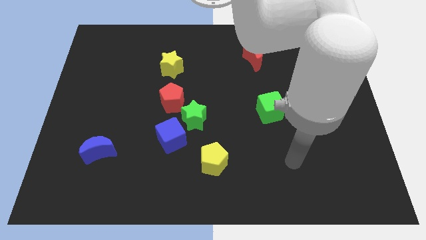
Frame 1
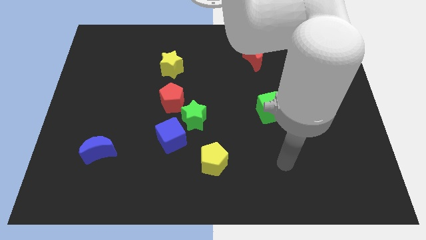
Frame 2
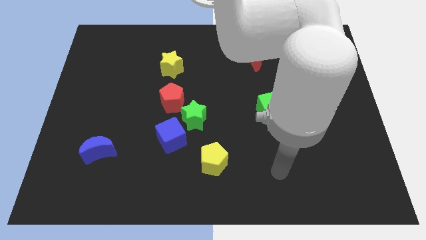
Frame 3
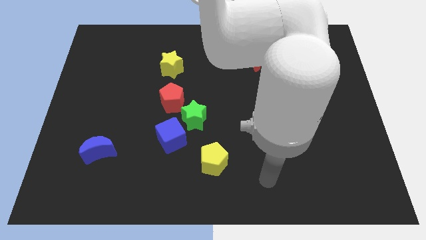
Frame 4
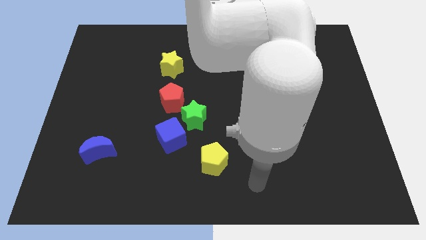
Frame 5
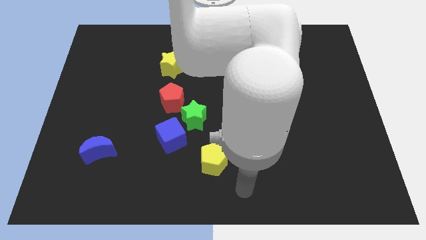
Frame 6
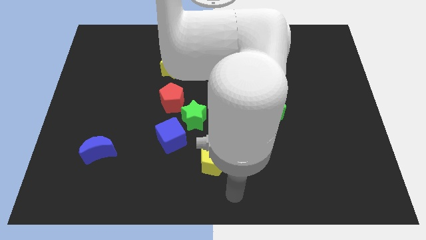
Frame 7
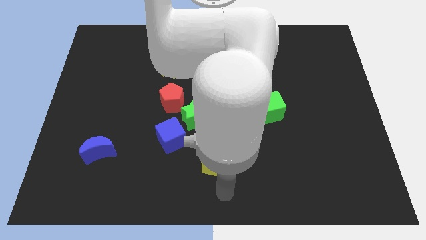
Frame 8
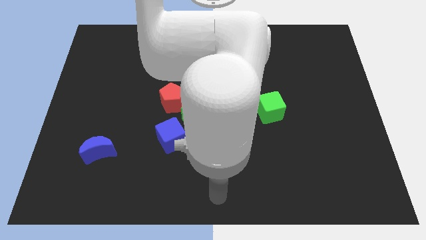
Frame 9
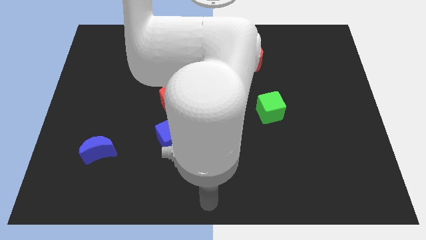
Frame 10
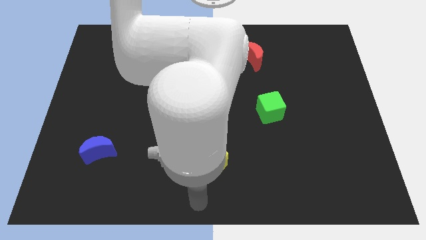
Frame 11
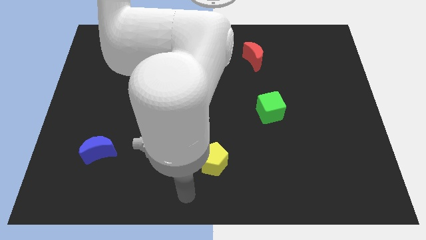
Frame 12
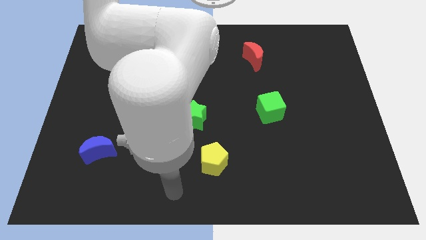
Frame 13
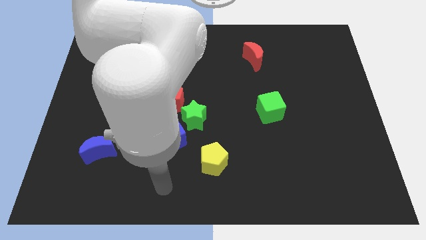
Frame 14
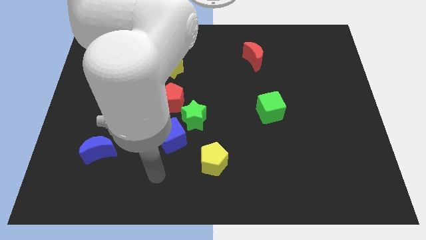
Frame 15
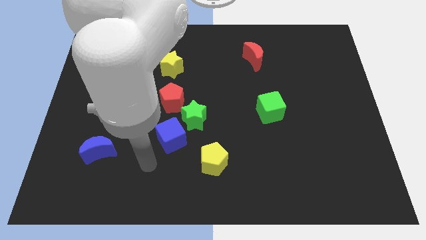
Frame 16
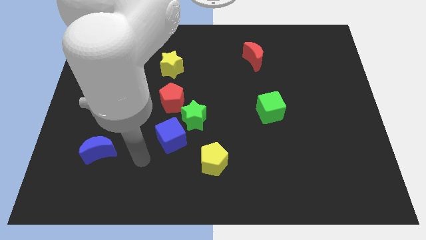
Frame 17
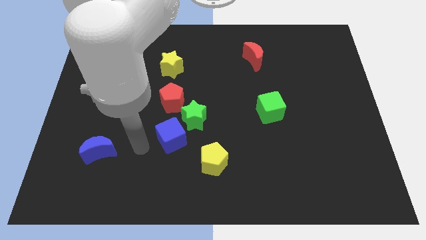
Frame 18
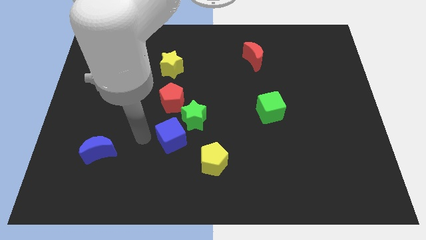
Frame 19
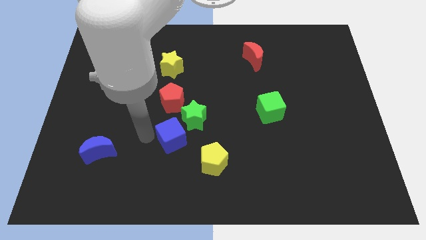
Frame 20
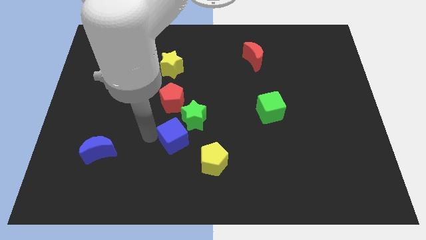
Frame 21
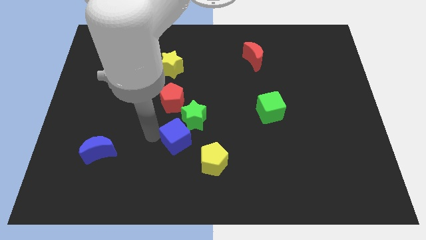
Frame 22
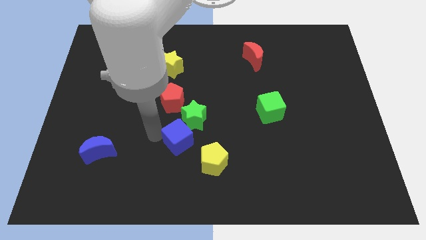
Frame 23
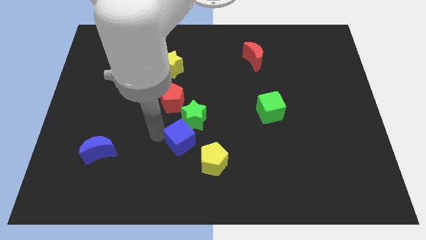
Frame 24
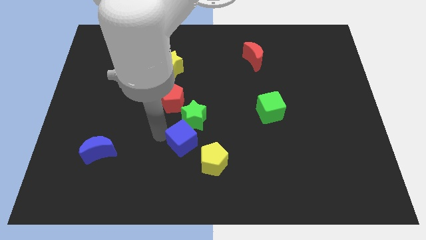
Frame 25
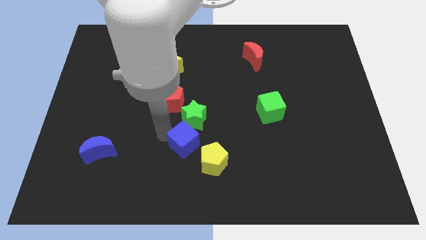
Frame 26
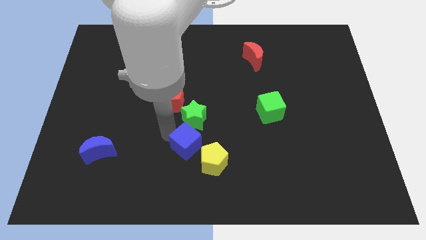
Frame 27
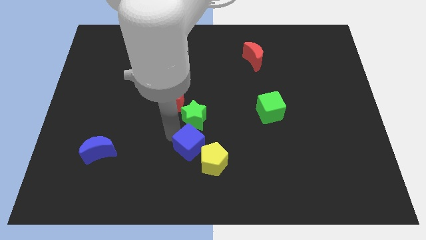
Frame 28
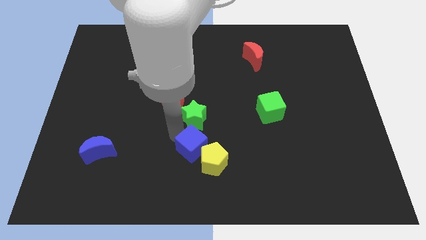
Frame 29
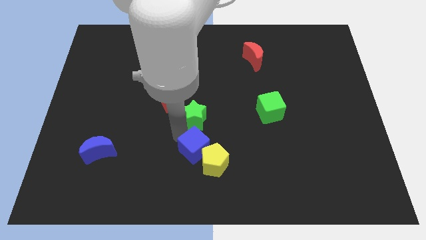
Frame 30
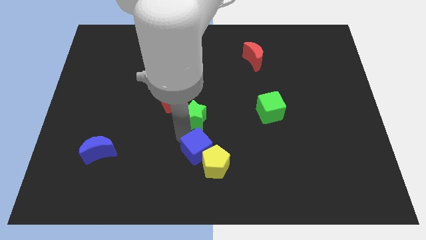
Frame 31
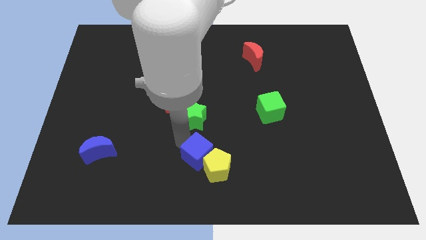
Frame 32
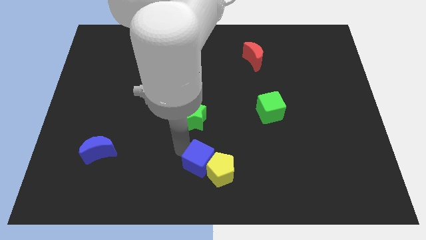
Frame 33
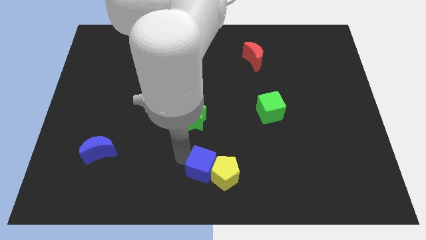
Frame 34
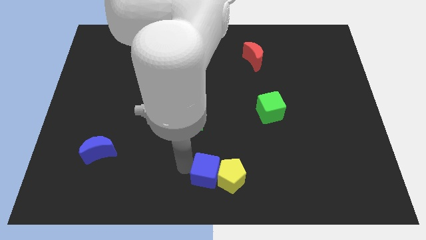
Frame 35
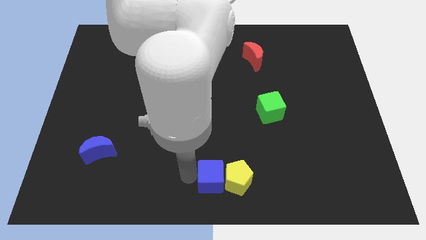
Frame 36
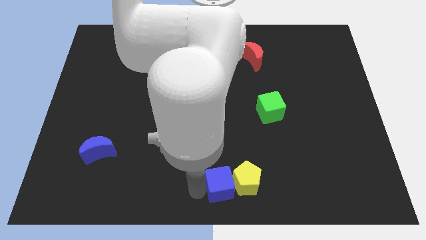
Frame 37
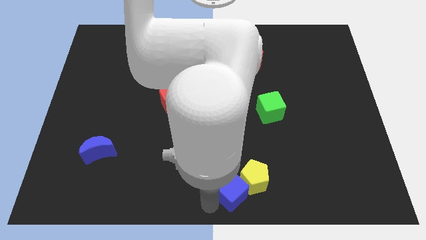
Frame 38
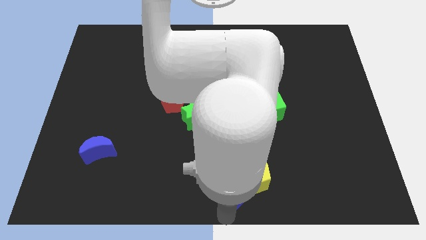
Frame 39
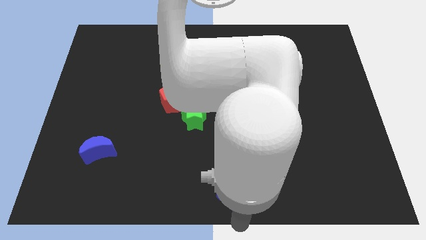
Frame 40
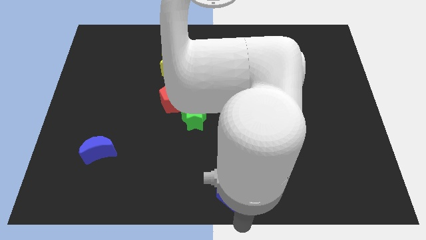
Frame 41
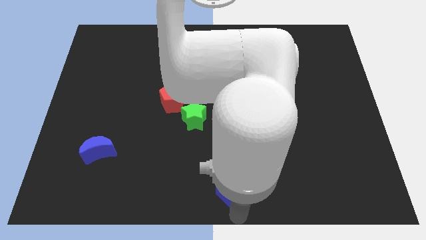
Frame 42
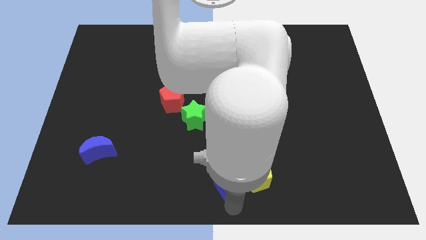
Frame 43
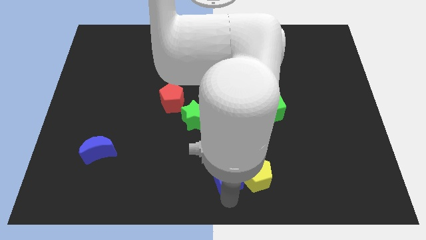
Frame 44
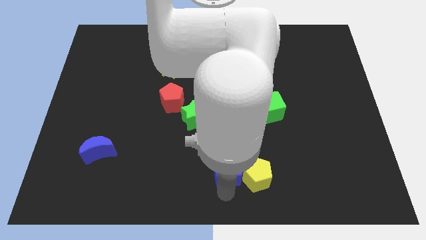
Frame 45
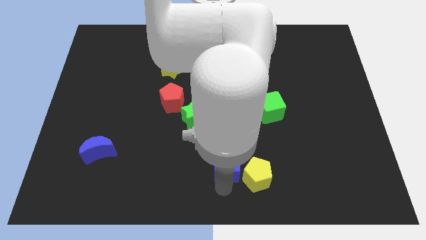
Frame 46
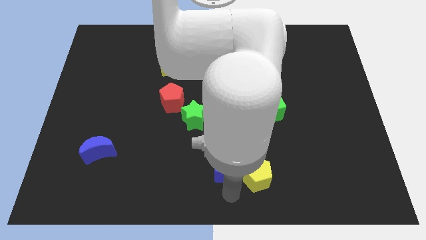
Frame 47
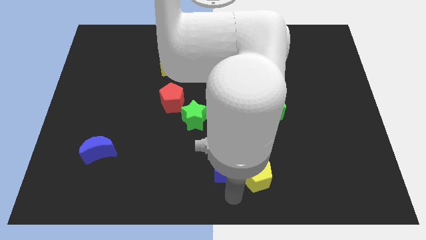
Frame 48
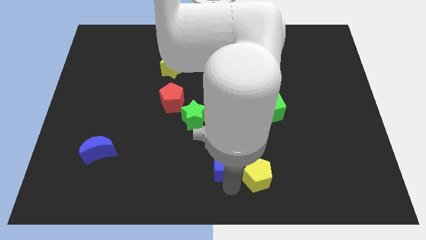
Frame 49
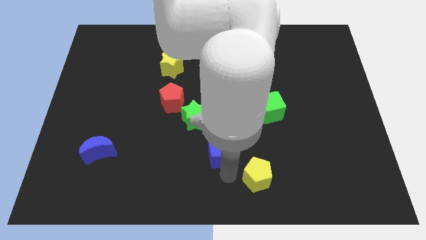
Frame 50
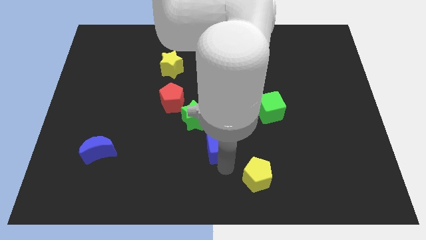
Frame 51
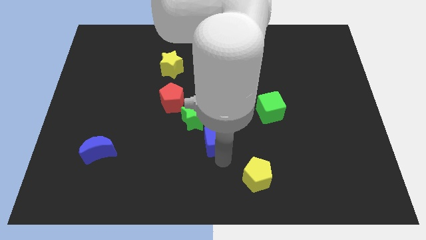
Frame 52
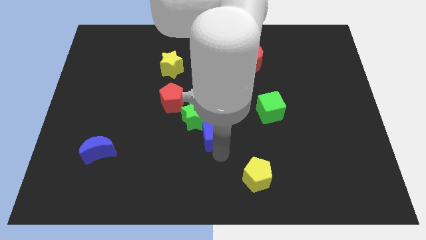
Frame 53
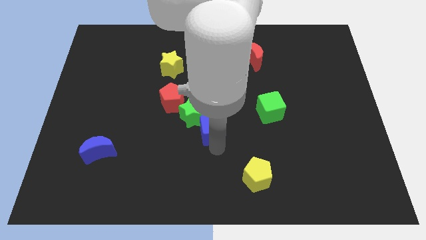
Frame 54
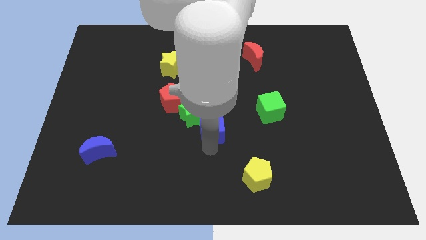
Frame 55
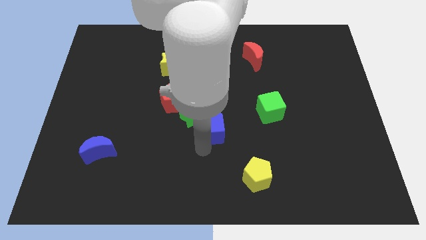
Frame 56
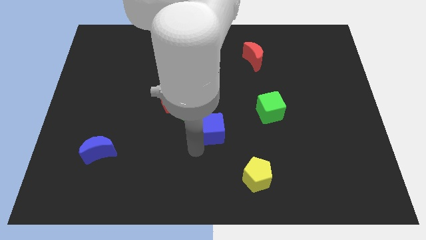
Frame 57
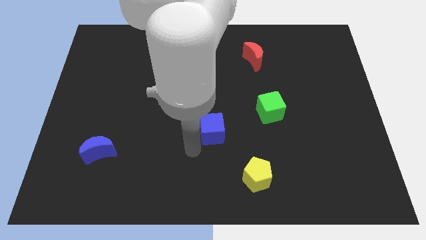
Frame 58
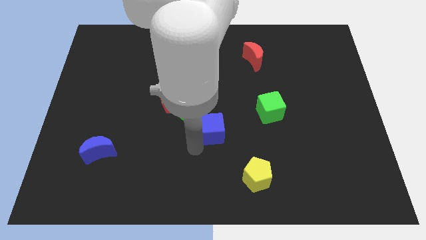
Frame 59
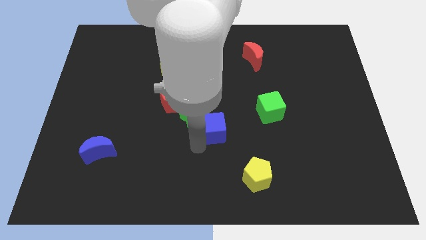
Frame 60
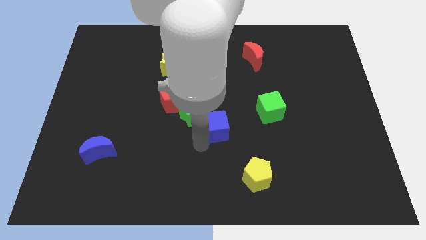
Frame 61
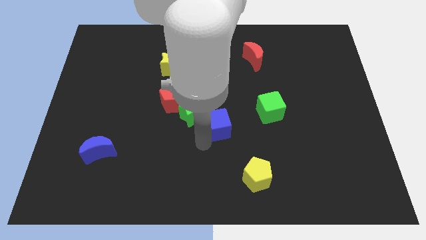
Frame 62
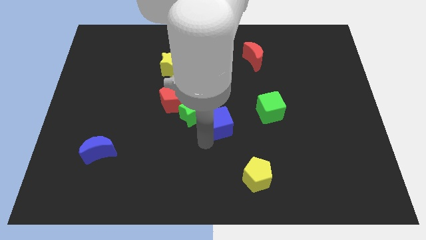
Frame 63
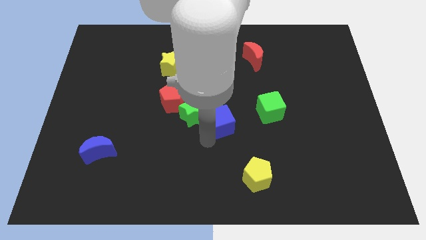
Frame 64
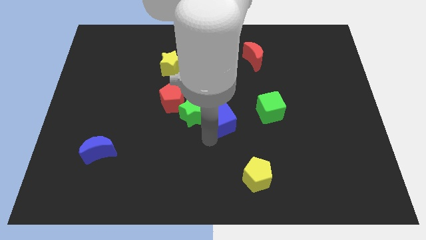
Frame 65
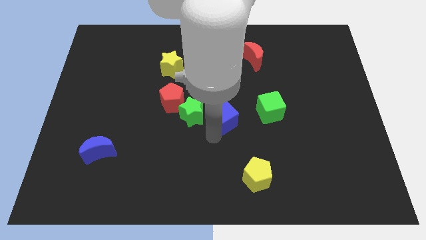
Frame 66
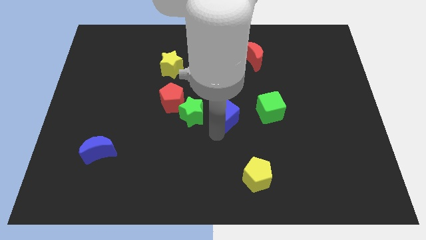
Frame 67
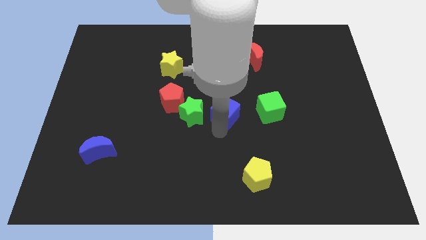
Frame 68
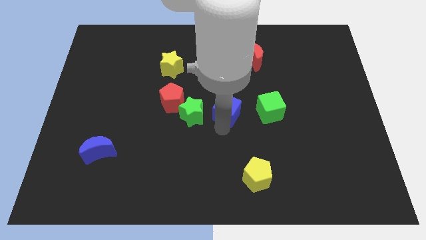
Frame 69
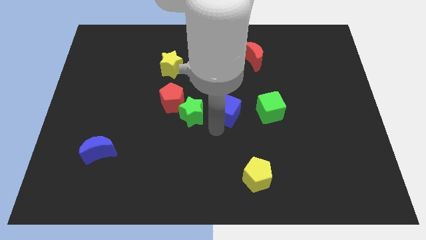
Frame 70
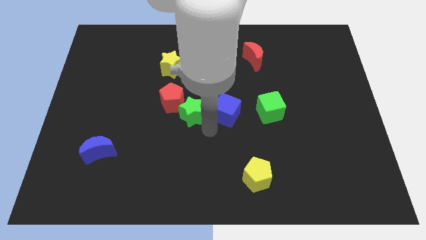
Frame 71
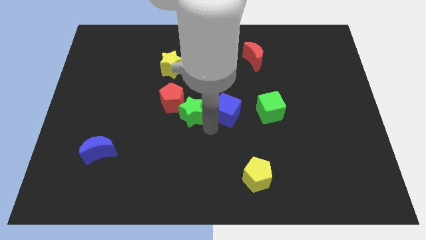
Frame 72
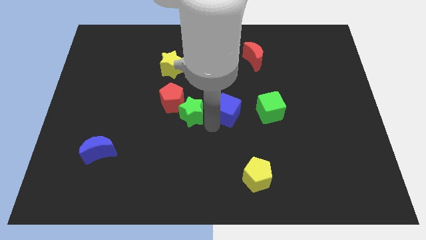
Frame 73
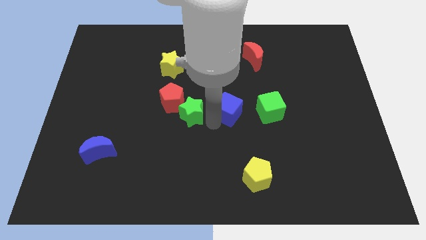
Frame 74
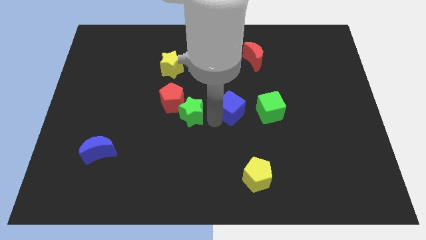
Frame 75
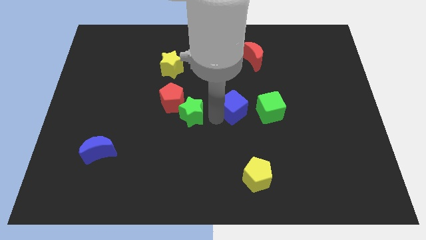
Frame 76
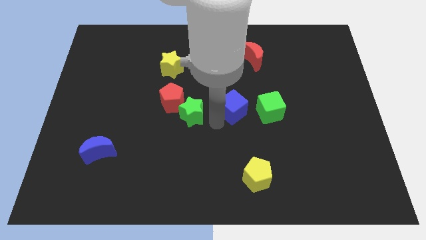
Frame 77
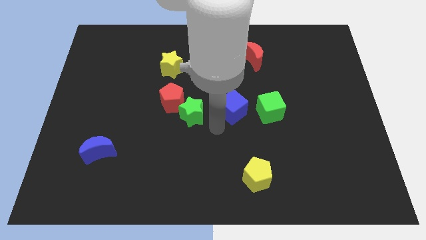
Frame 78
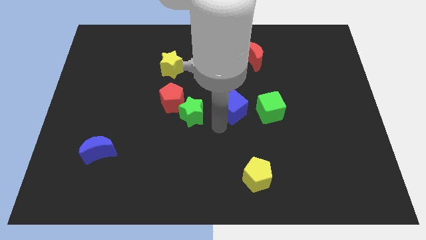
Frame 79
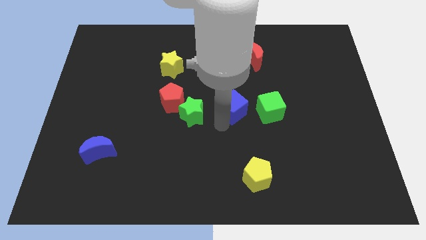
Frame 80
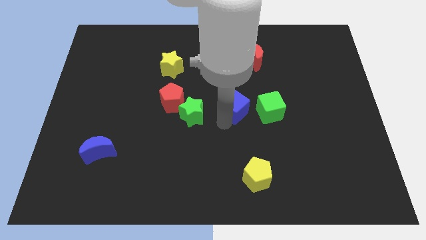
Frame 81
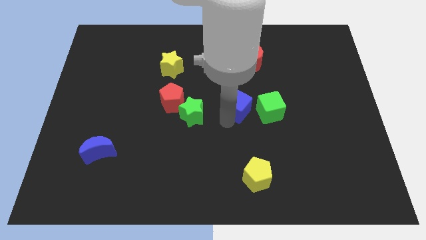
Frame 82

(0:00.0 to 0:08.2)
move the blue cube to the top left of the green cube
